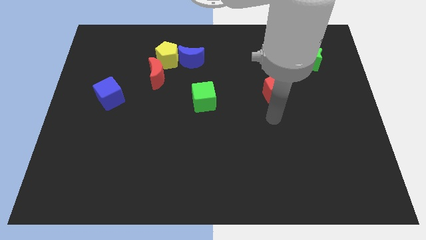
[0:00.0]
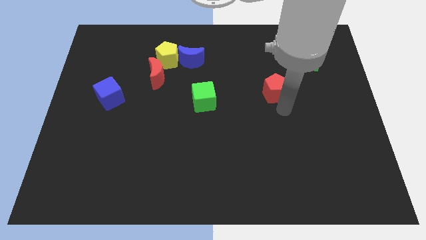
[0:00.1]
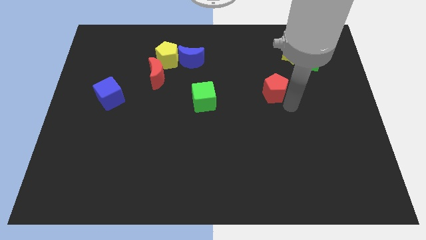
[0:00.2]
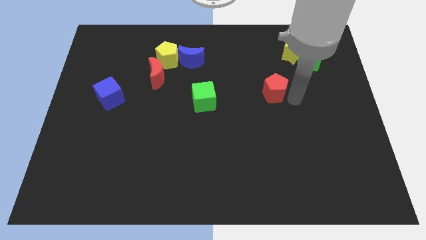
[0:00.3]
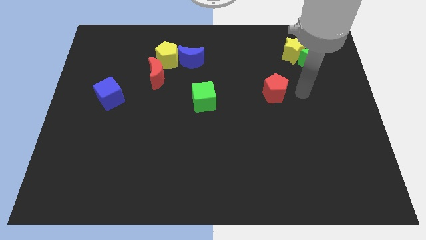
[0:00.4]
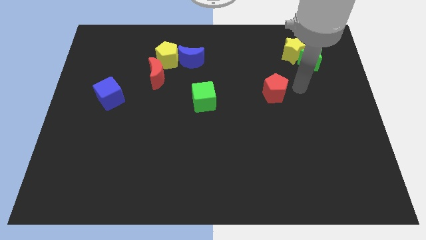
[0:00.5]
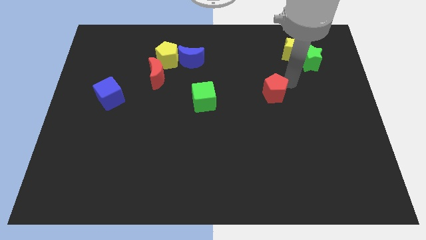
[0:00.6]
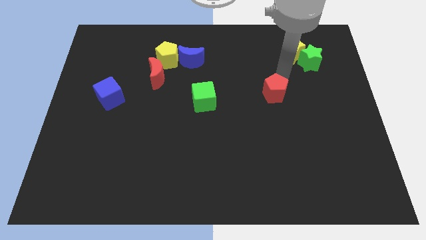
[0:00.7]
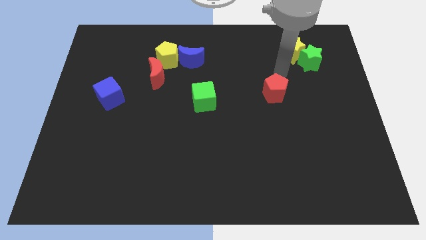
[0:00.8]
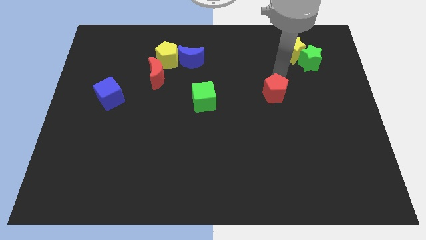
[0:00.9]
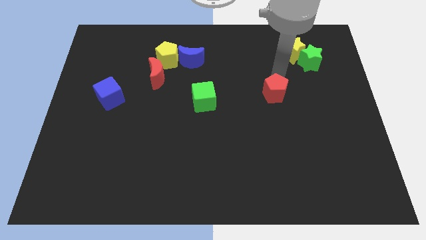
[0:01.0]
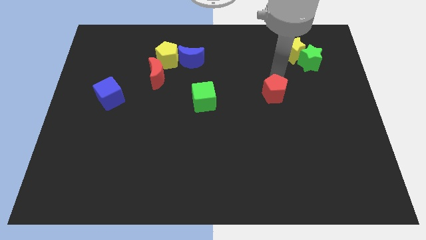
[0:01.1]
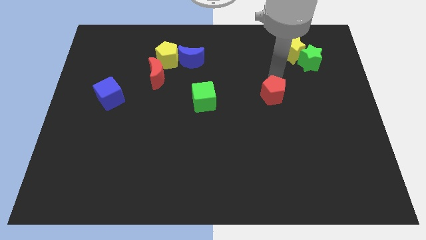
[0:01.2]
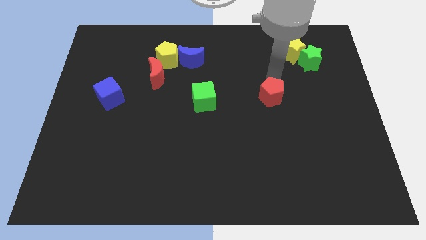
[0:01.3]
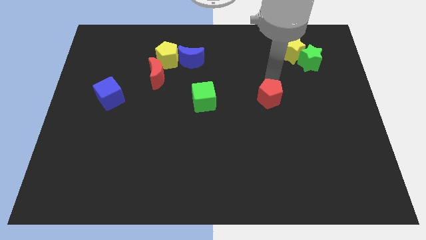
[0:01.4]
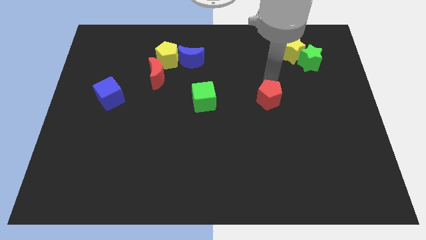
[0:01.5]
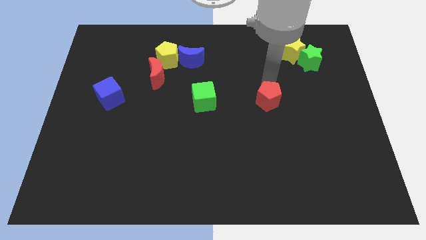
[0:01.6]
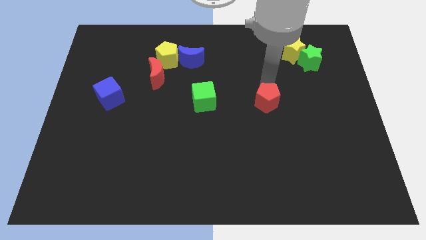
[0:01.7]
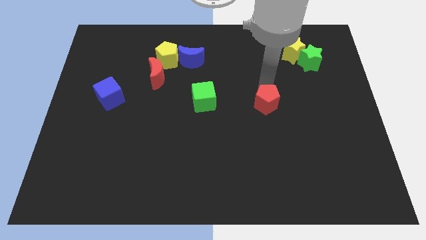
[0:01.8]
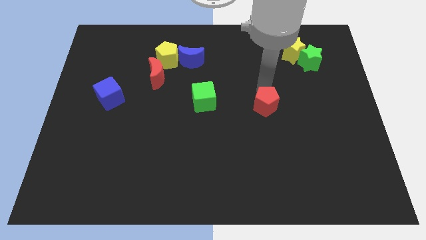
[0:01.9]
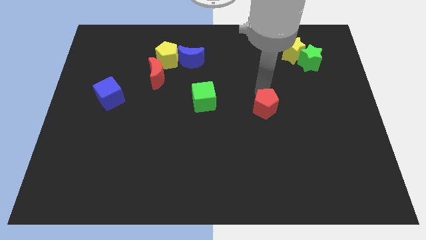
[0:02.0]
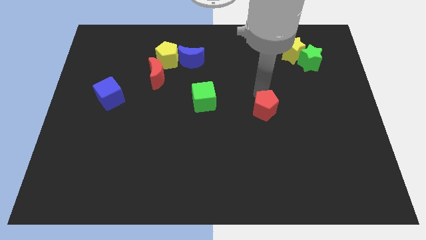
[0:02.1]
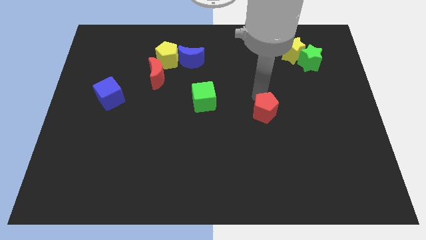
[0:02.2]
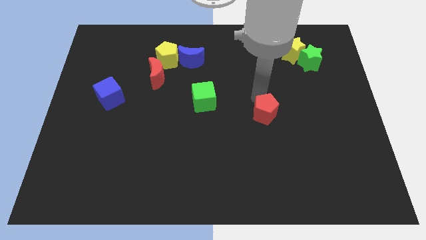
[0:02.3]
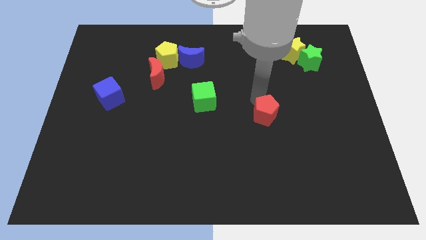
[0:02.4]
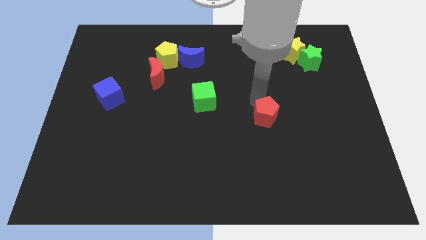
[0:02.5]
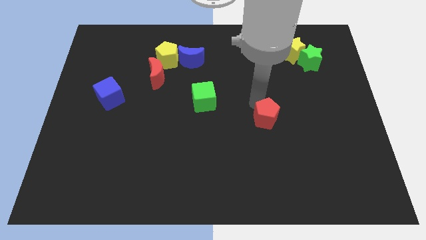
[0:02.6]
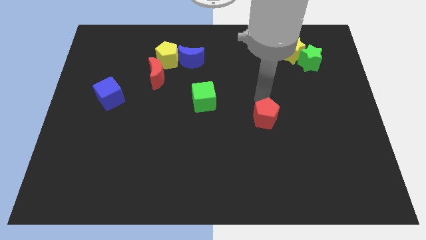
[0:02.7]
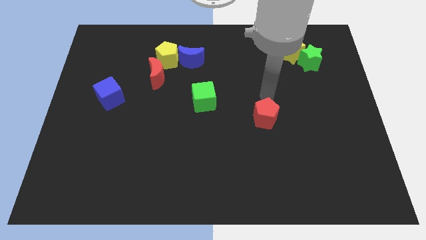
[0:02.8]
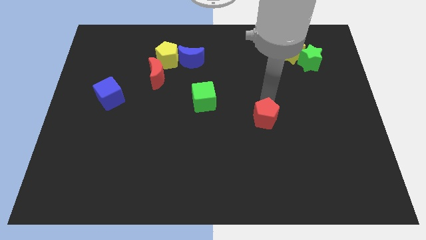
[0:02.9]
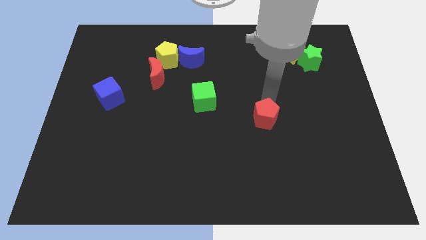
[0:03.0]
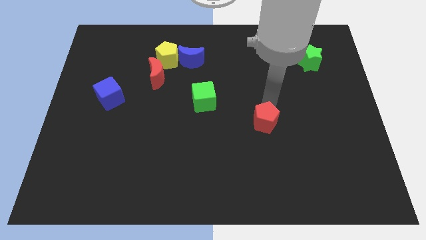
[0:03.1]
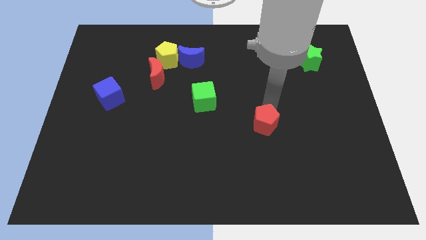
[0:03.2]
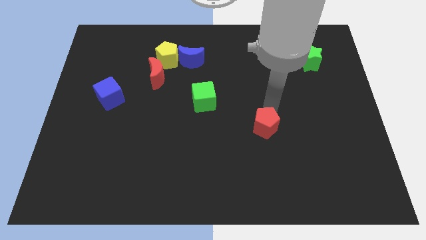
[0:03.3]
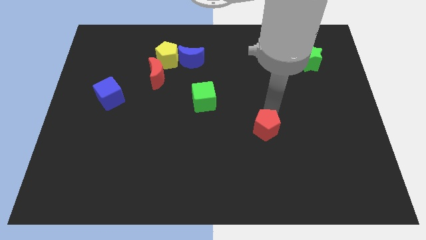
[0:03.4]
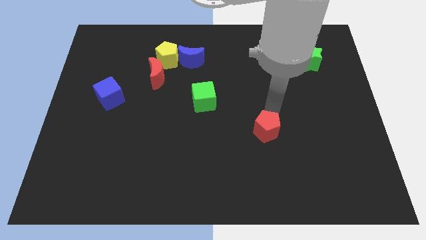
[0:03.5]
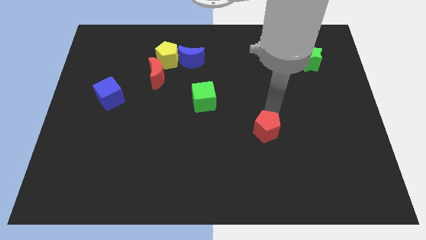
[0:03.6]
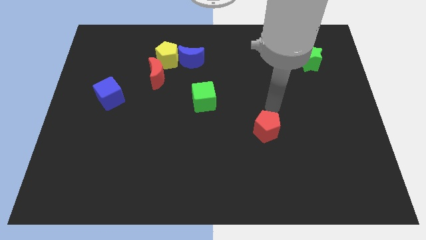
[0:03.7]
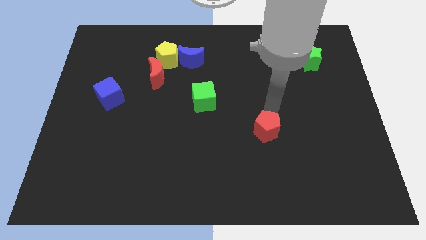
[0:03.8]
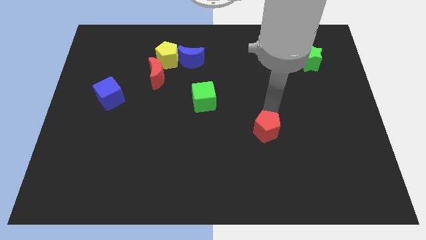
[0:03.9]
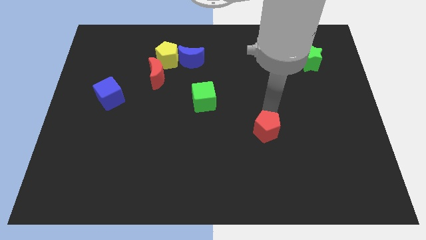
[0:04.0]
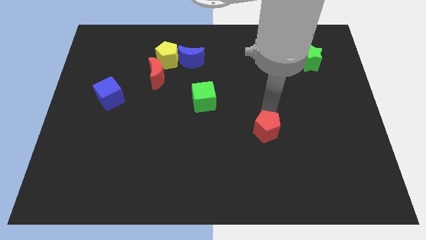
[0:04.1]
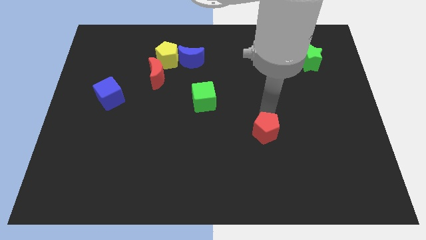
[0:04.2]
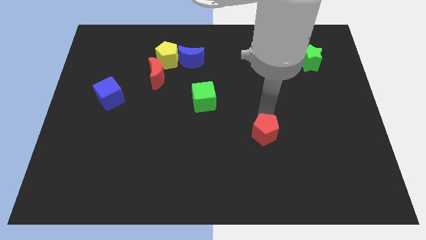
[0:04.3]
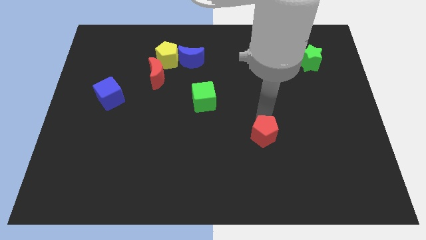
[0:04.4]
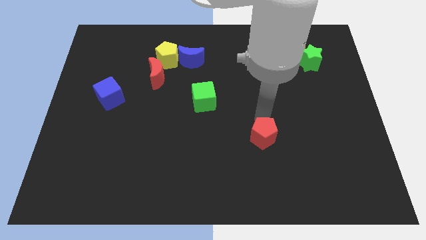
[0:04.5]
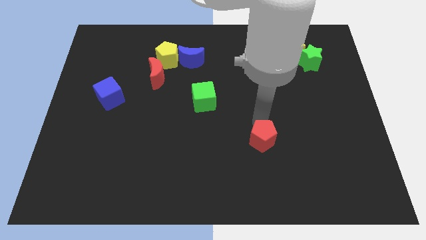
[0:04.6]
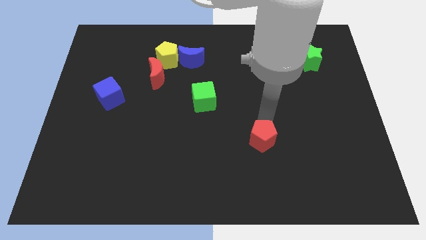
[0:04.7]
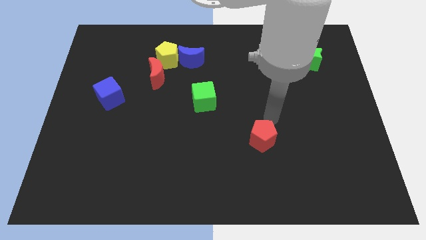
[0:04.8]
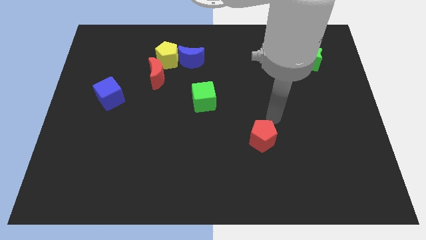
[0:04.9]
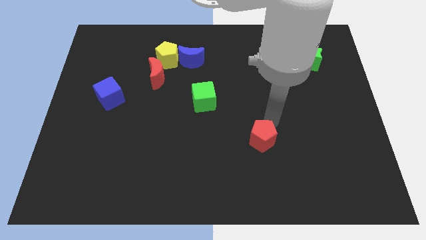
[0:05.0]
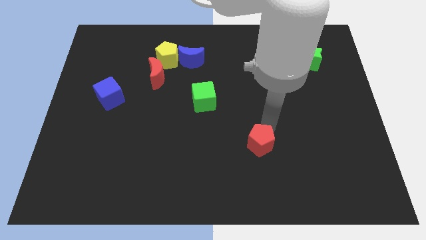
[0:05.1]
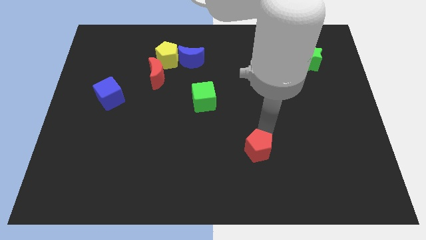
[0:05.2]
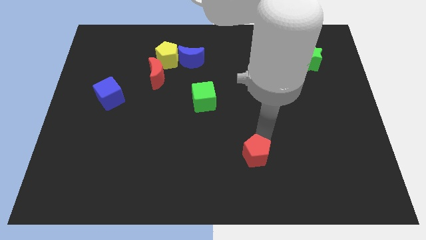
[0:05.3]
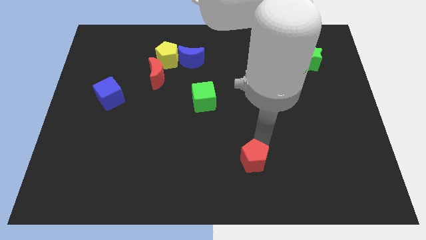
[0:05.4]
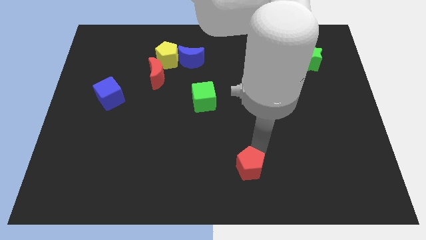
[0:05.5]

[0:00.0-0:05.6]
push the red pentagon to the bottom side
